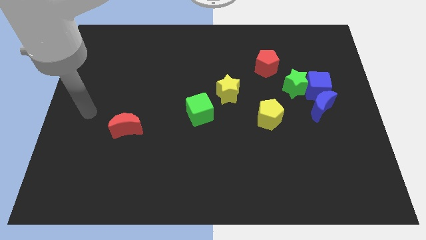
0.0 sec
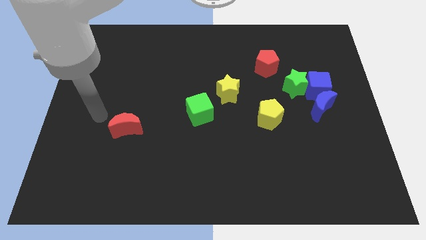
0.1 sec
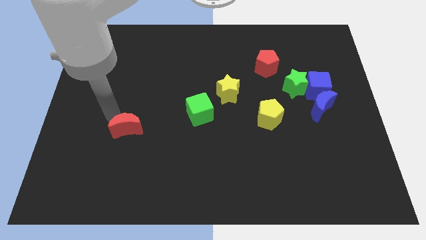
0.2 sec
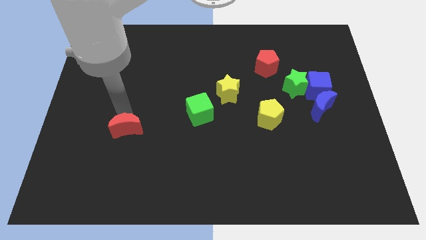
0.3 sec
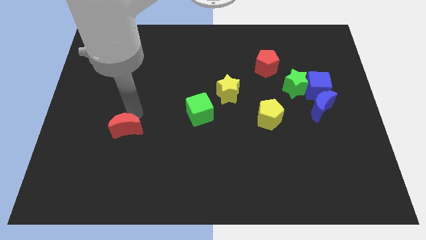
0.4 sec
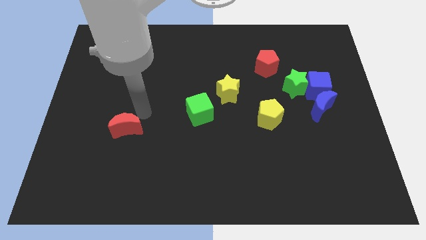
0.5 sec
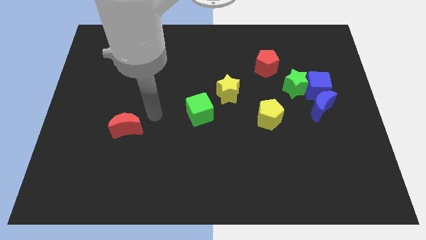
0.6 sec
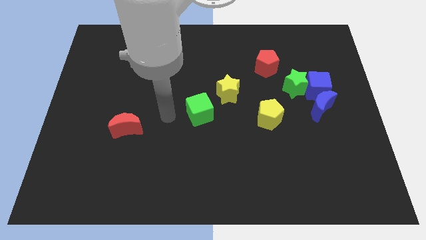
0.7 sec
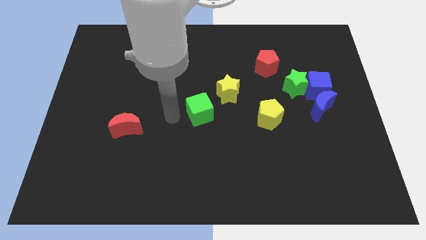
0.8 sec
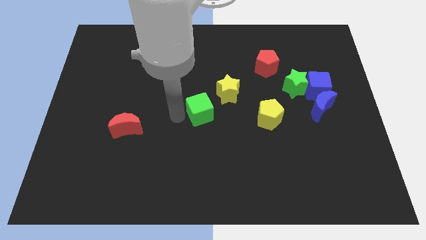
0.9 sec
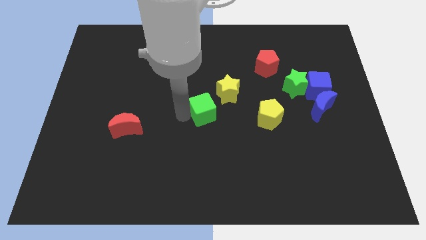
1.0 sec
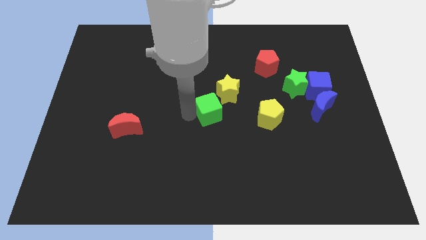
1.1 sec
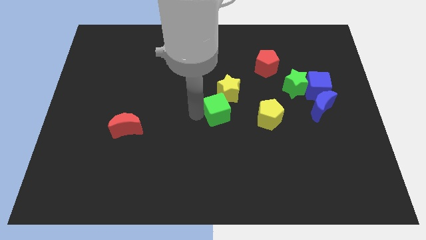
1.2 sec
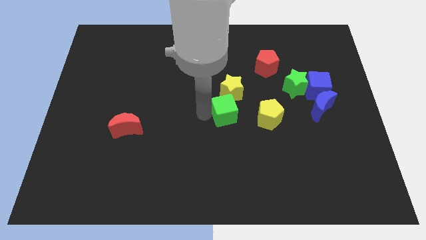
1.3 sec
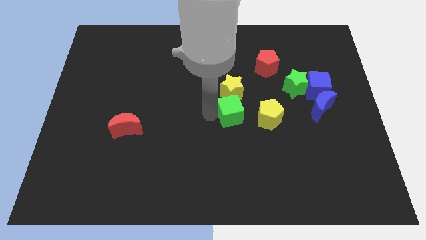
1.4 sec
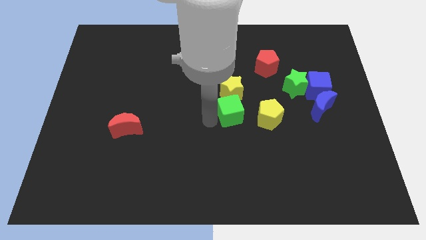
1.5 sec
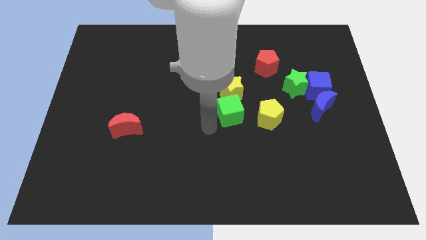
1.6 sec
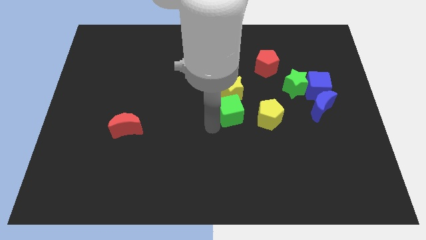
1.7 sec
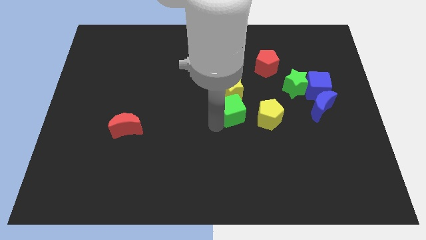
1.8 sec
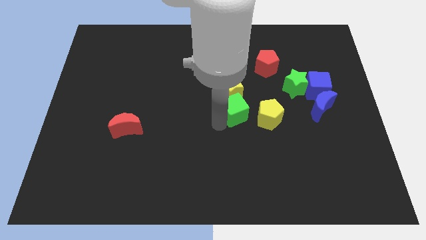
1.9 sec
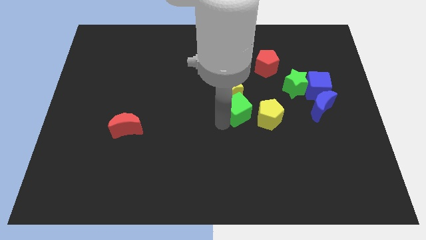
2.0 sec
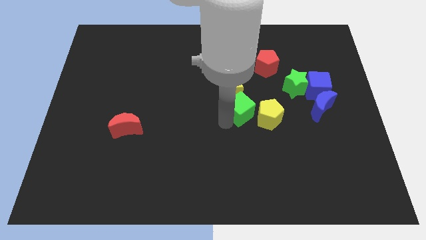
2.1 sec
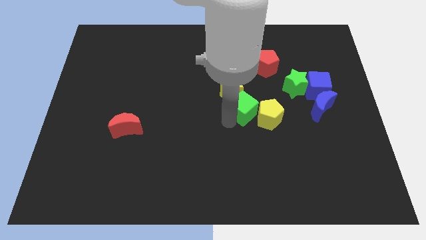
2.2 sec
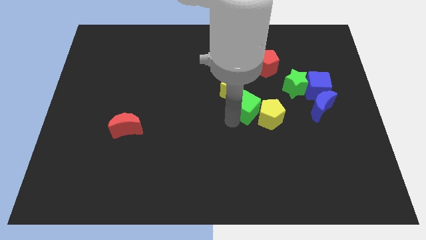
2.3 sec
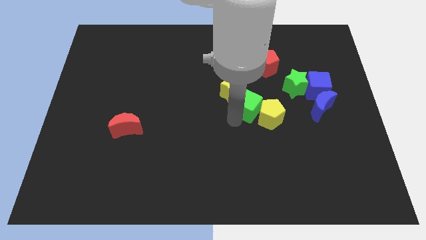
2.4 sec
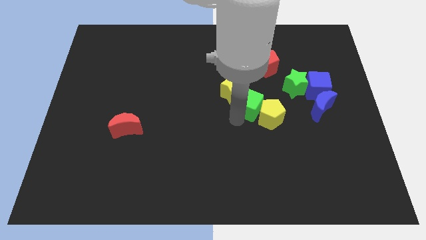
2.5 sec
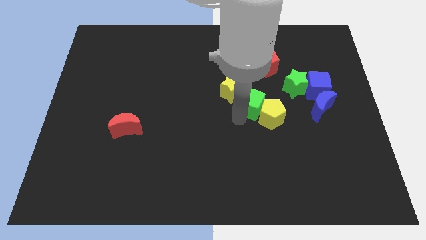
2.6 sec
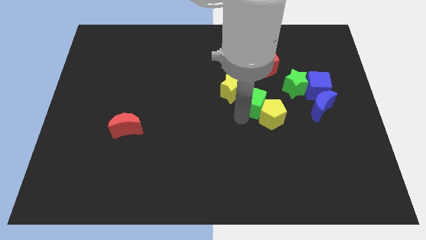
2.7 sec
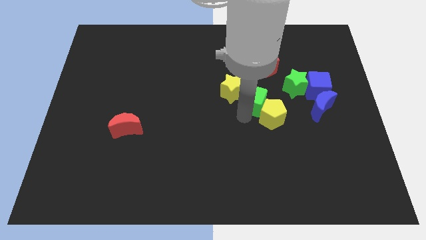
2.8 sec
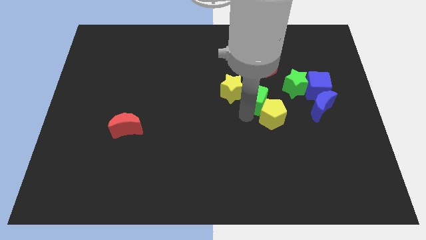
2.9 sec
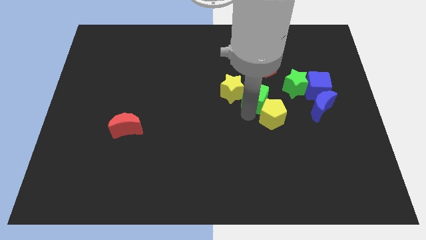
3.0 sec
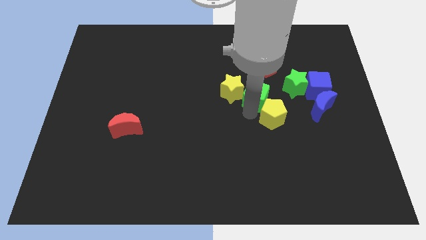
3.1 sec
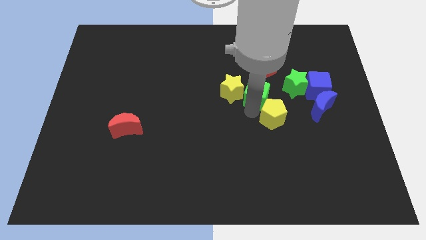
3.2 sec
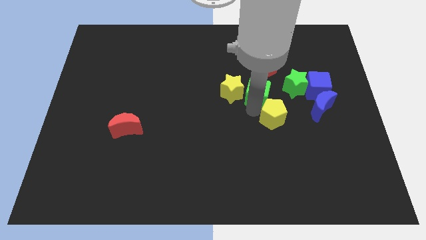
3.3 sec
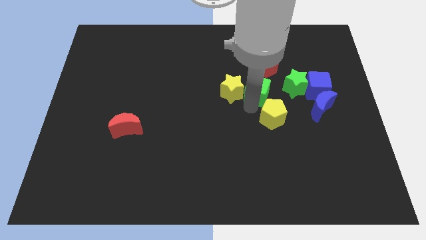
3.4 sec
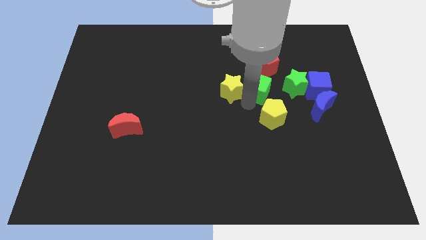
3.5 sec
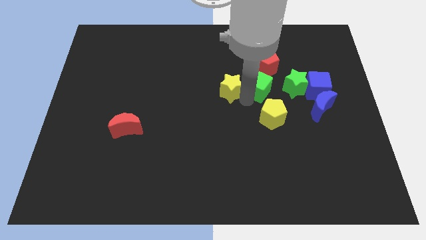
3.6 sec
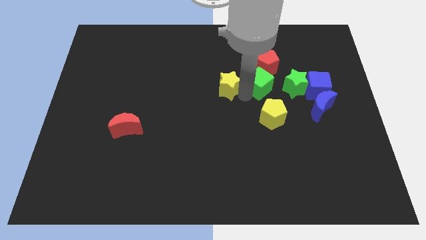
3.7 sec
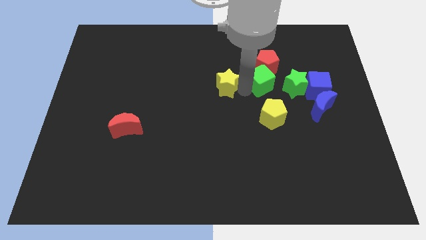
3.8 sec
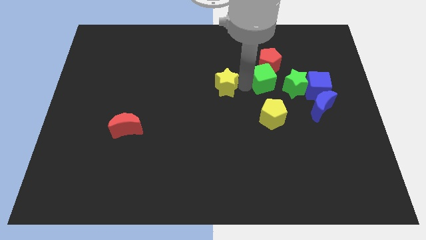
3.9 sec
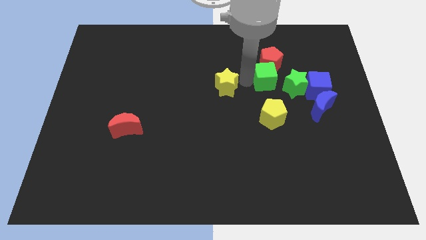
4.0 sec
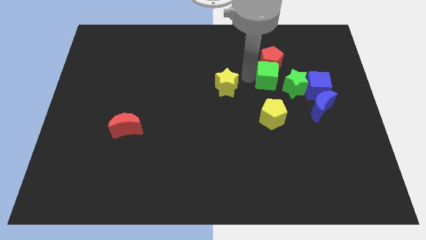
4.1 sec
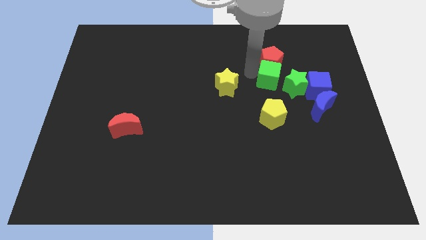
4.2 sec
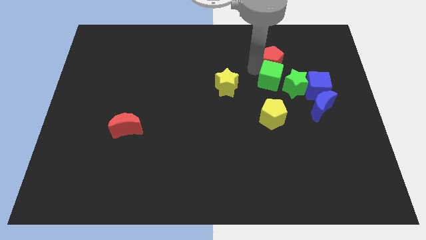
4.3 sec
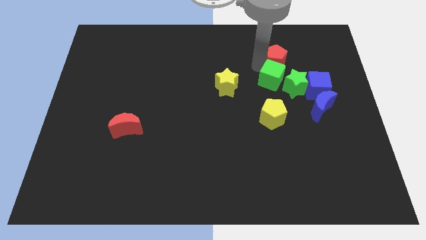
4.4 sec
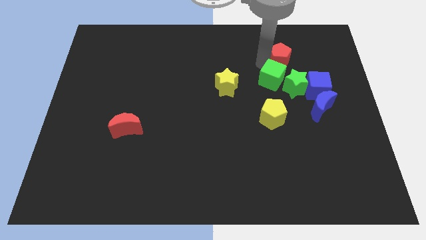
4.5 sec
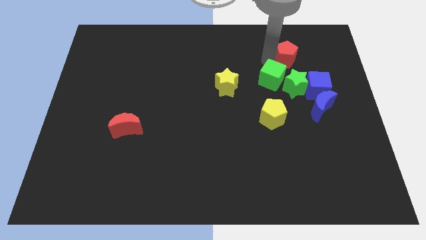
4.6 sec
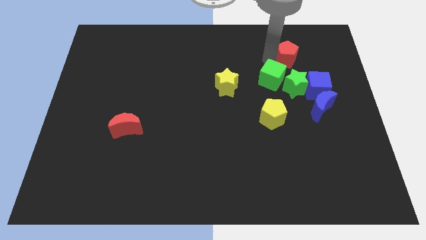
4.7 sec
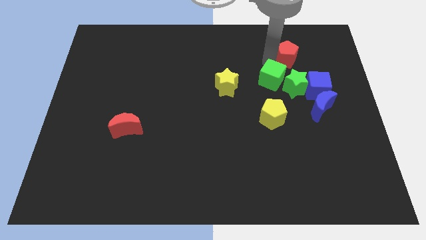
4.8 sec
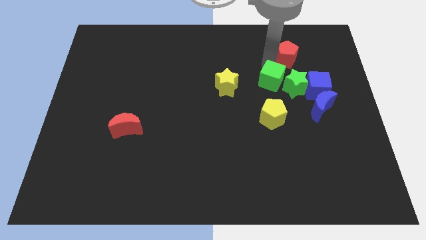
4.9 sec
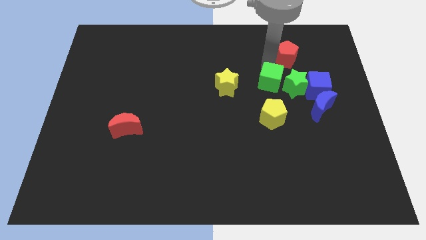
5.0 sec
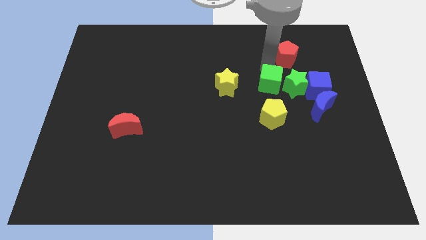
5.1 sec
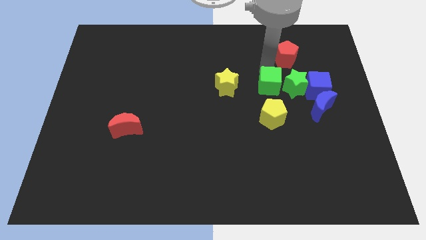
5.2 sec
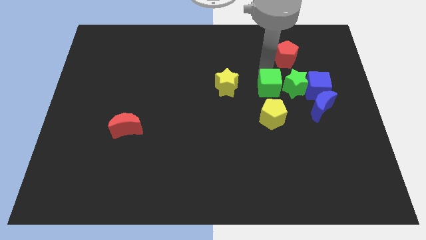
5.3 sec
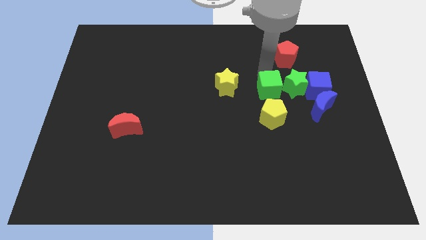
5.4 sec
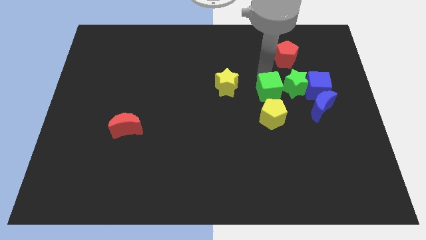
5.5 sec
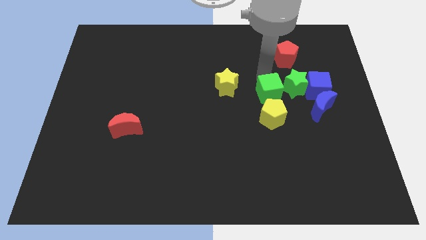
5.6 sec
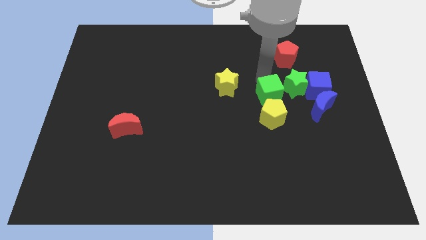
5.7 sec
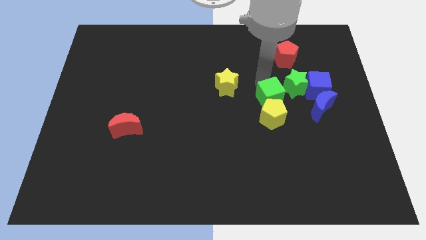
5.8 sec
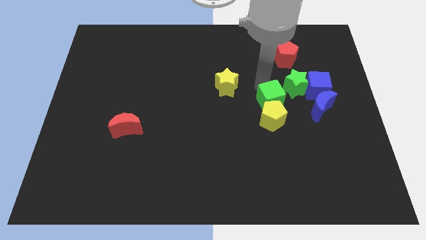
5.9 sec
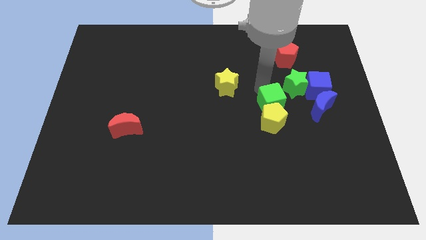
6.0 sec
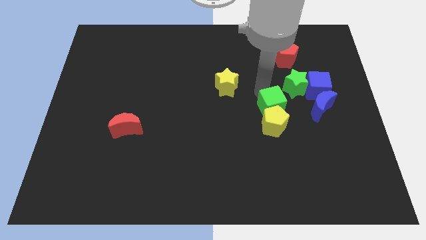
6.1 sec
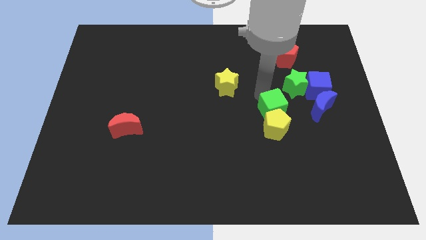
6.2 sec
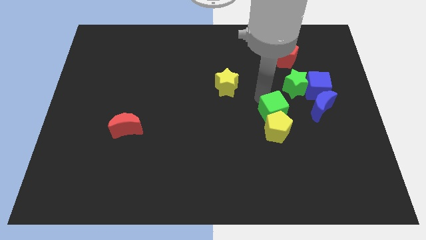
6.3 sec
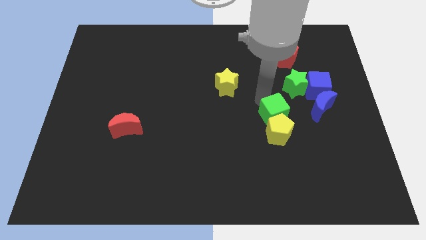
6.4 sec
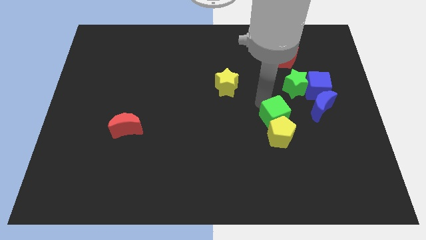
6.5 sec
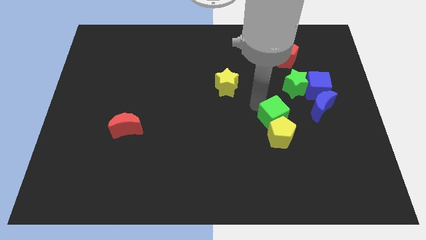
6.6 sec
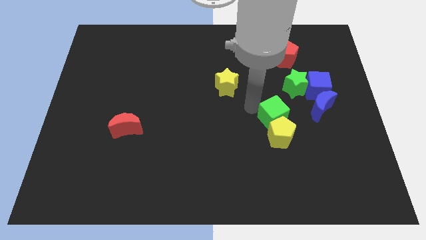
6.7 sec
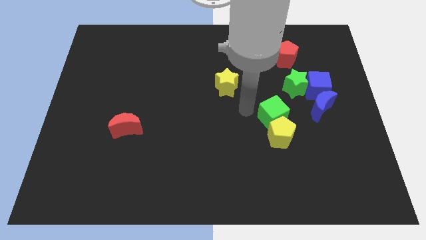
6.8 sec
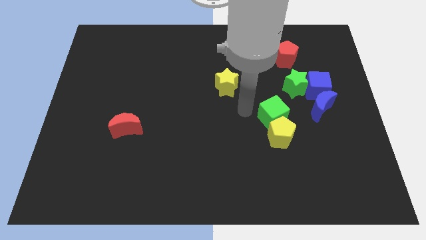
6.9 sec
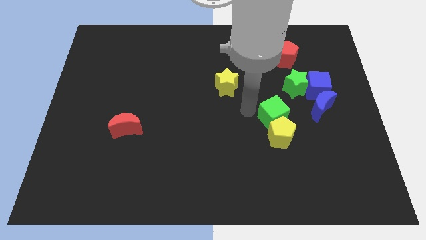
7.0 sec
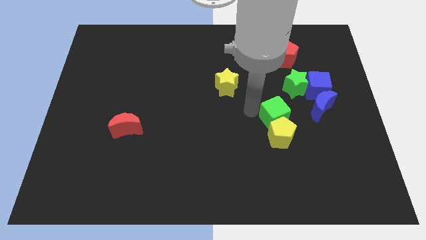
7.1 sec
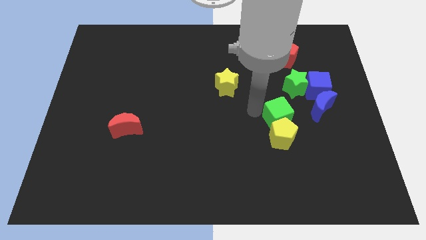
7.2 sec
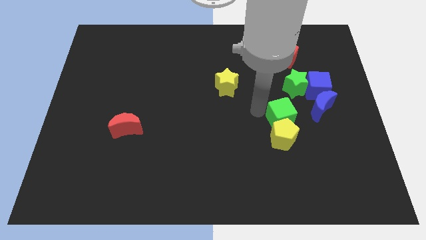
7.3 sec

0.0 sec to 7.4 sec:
move the green cube below the green star
